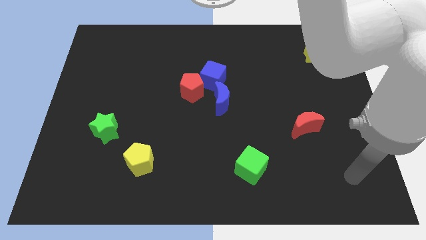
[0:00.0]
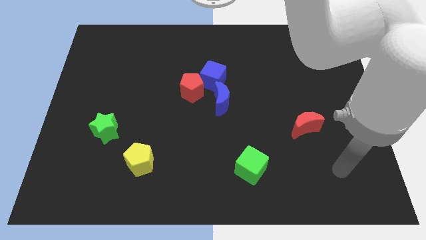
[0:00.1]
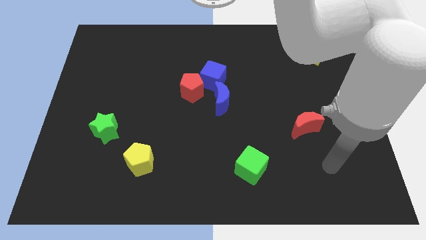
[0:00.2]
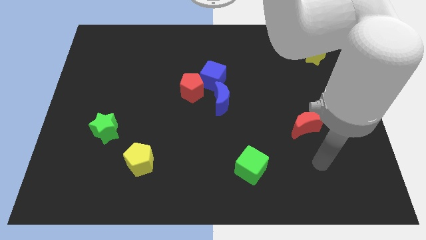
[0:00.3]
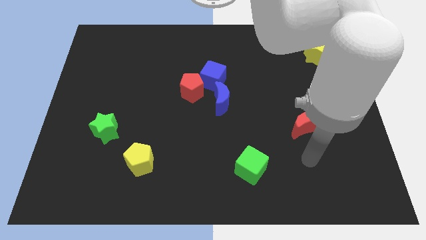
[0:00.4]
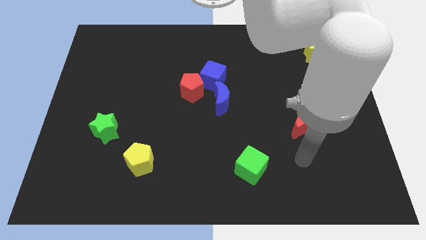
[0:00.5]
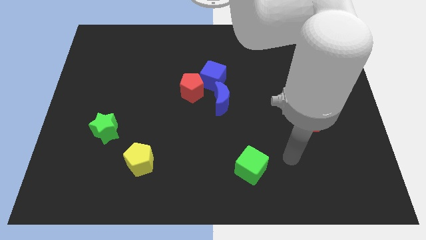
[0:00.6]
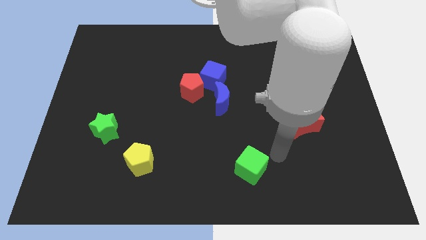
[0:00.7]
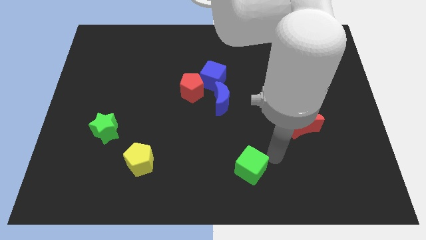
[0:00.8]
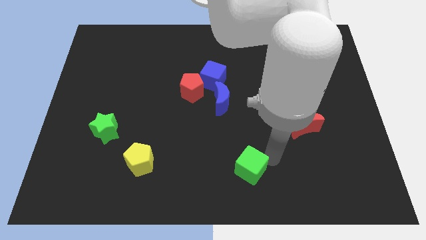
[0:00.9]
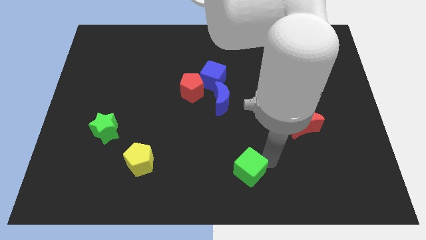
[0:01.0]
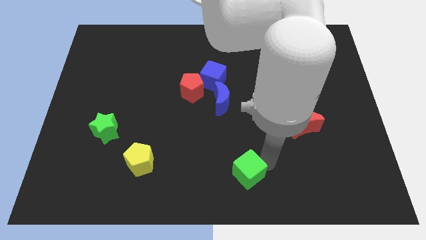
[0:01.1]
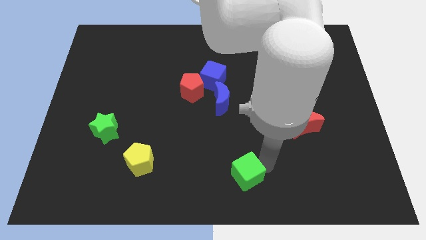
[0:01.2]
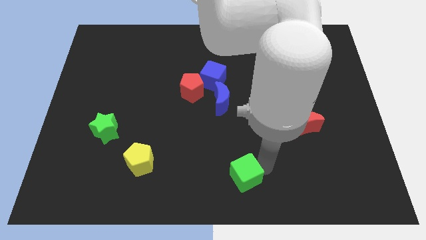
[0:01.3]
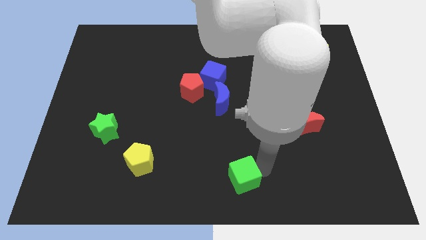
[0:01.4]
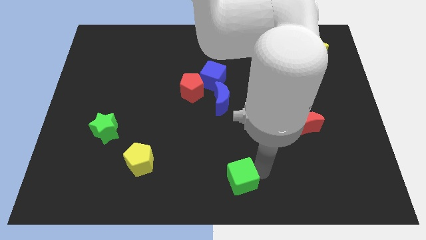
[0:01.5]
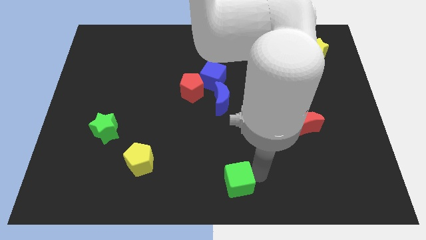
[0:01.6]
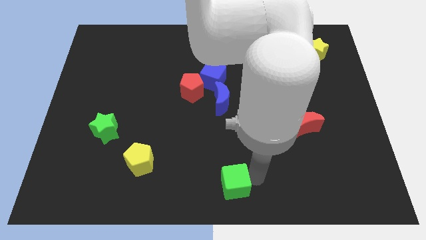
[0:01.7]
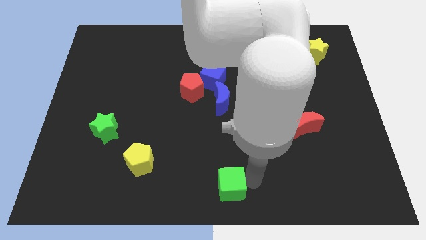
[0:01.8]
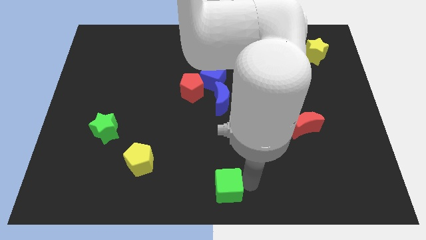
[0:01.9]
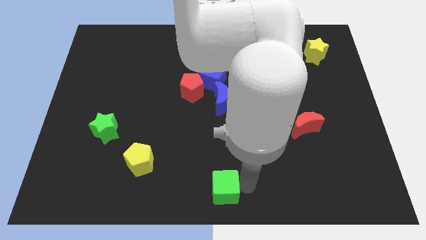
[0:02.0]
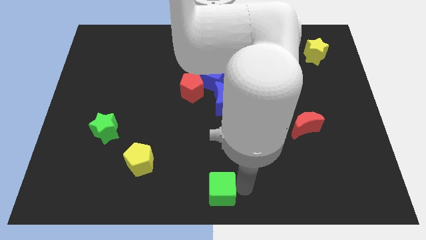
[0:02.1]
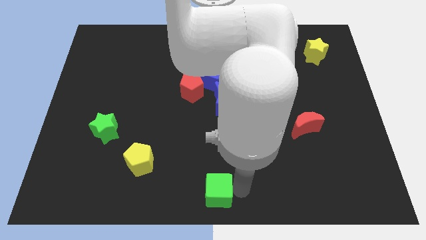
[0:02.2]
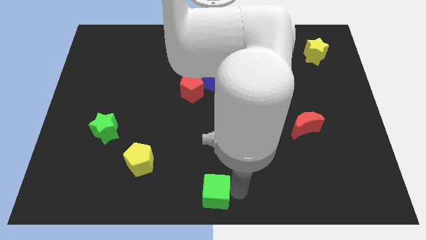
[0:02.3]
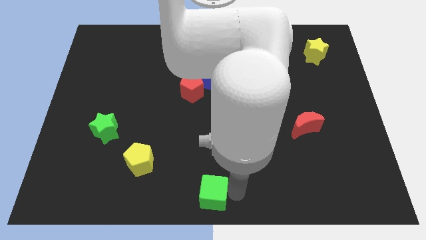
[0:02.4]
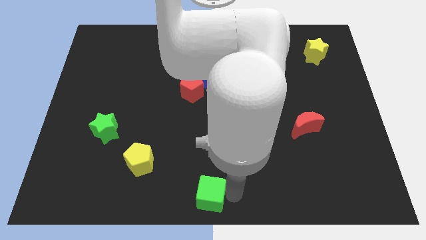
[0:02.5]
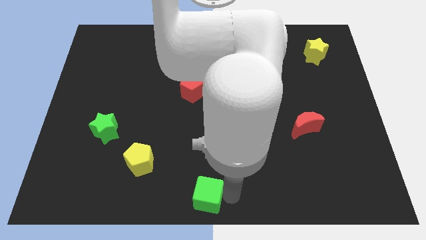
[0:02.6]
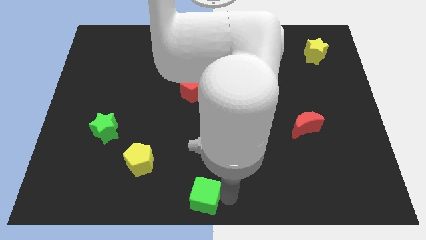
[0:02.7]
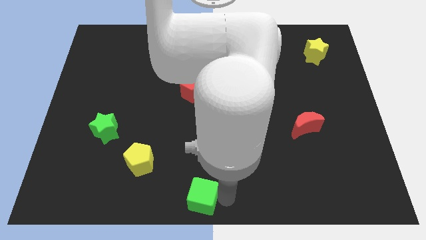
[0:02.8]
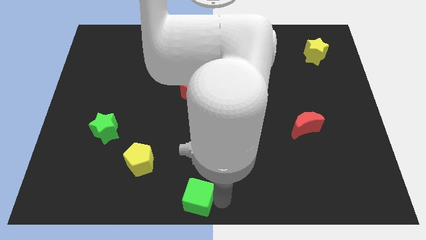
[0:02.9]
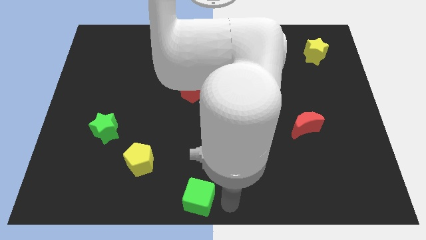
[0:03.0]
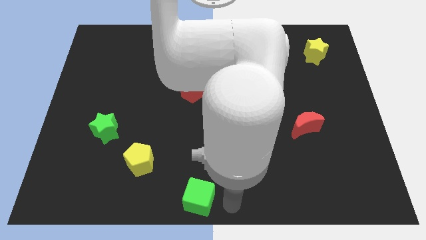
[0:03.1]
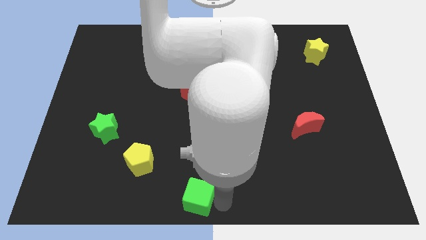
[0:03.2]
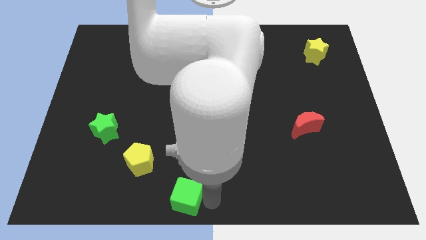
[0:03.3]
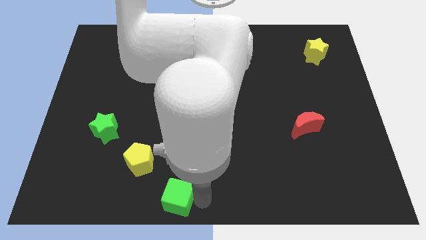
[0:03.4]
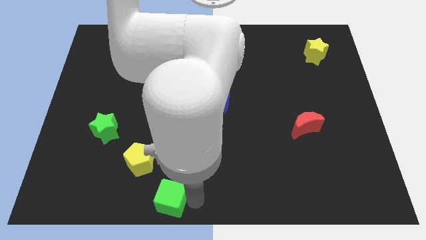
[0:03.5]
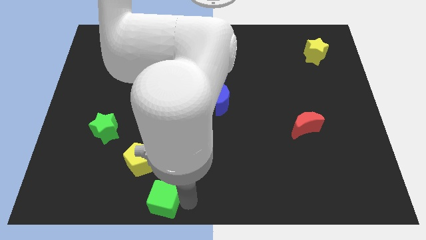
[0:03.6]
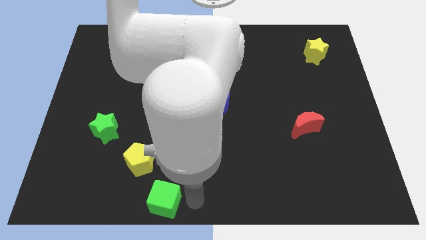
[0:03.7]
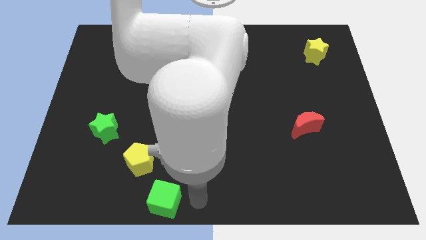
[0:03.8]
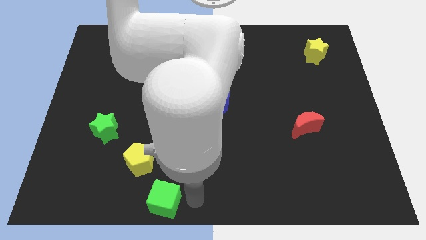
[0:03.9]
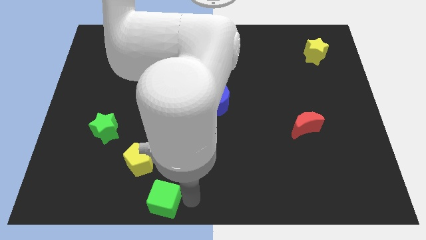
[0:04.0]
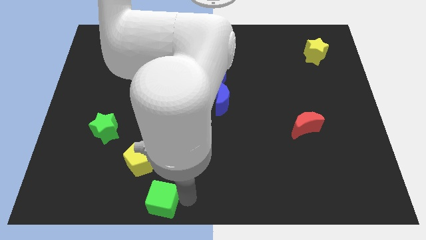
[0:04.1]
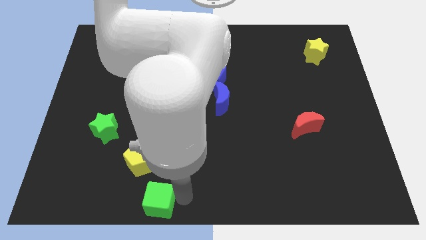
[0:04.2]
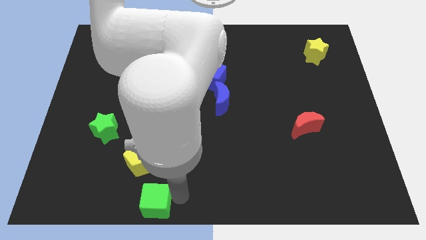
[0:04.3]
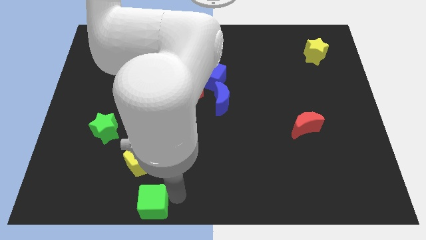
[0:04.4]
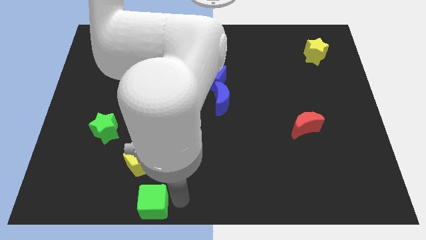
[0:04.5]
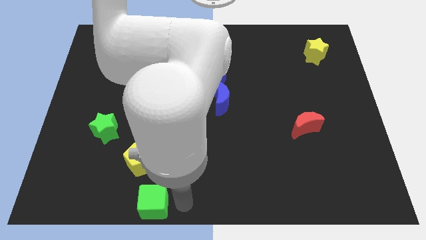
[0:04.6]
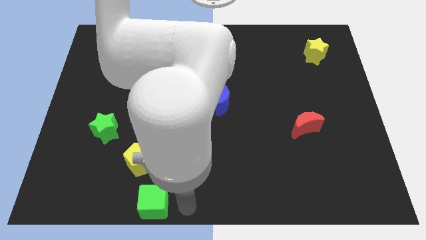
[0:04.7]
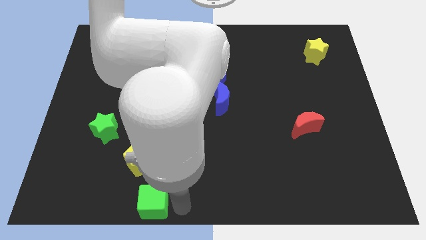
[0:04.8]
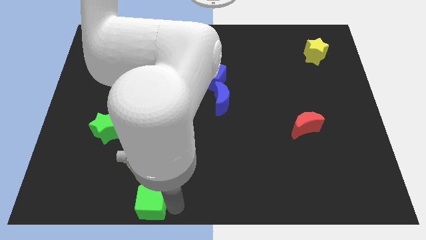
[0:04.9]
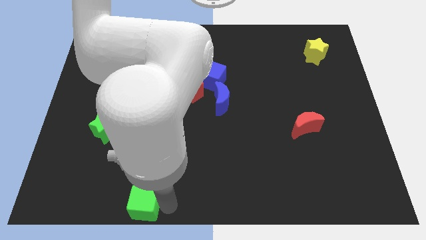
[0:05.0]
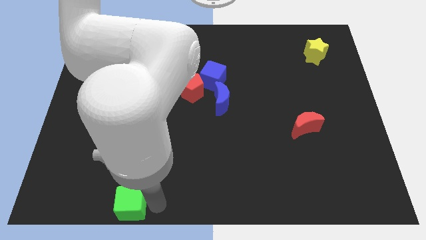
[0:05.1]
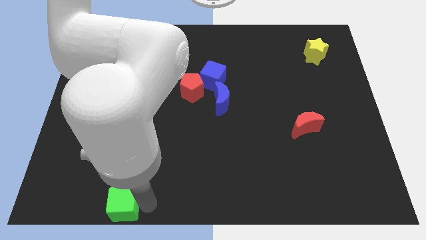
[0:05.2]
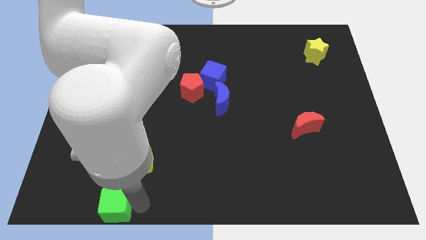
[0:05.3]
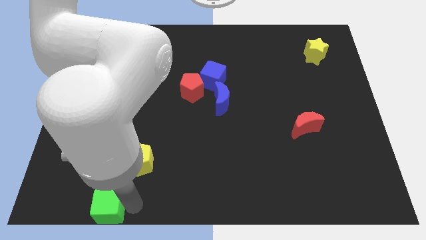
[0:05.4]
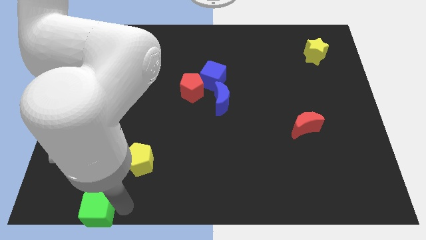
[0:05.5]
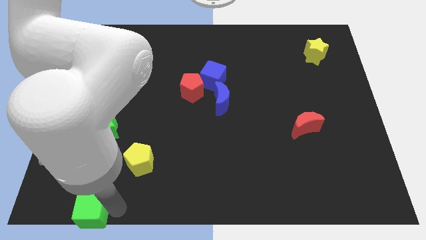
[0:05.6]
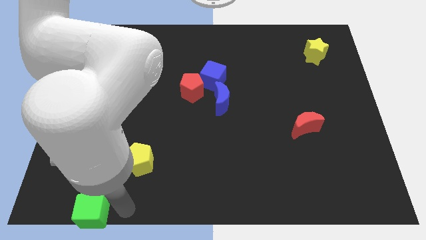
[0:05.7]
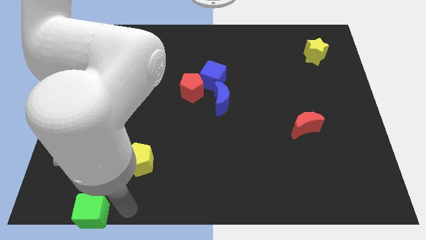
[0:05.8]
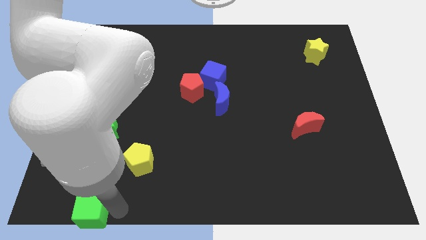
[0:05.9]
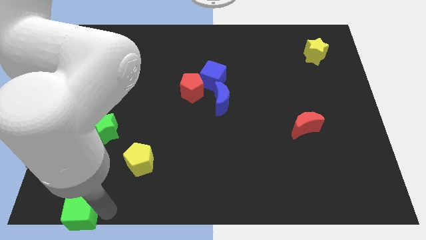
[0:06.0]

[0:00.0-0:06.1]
slide the green cube to the bottom left of the board
